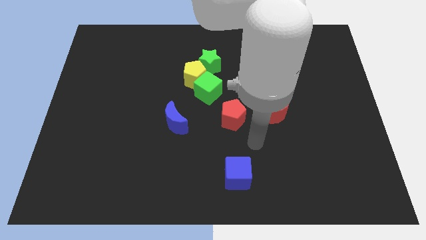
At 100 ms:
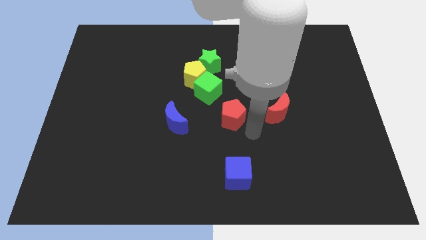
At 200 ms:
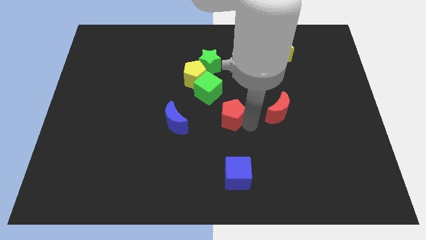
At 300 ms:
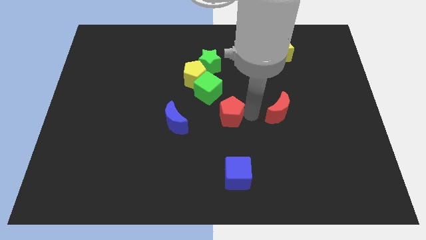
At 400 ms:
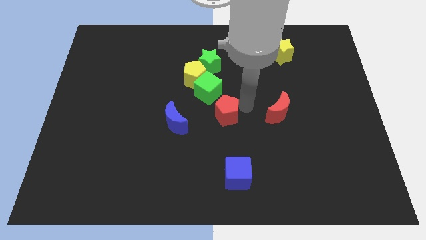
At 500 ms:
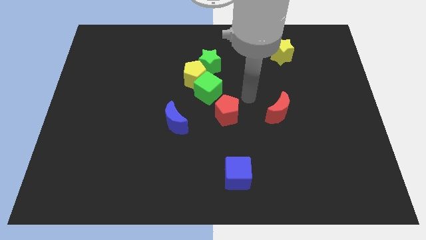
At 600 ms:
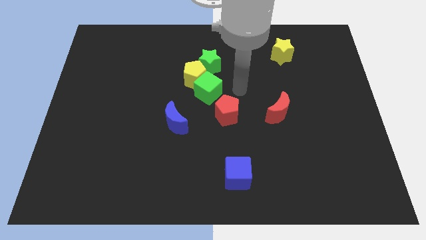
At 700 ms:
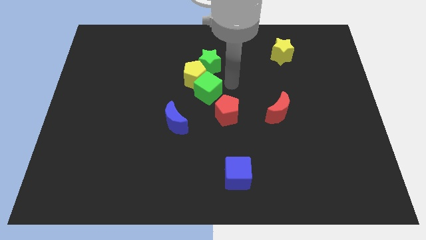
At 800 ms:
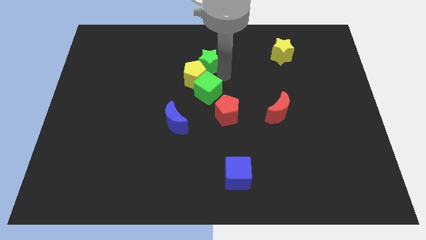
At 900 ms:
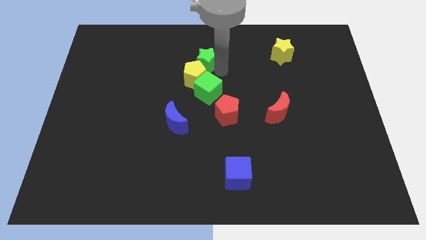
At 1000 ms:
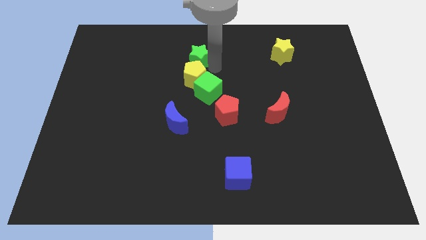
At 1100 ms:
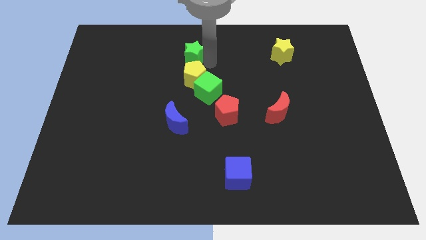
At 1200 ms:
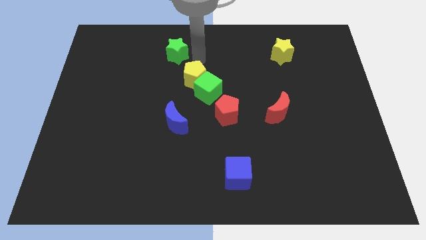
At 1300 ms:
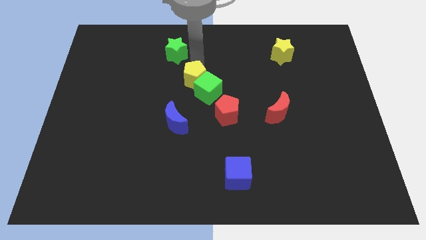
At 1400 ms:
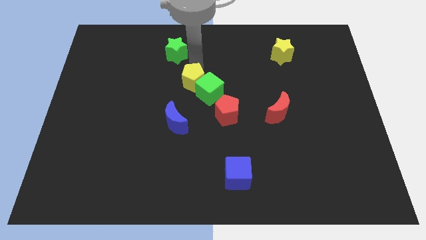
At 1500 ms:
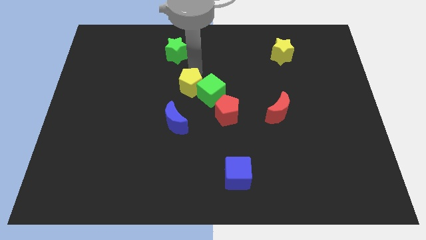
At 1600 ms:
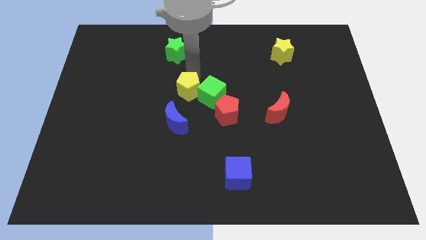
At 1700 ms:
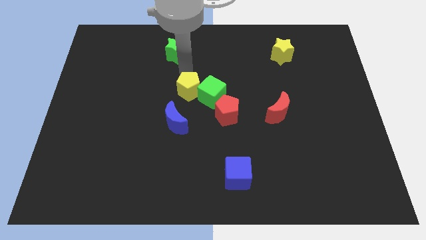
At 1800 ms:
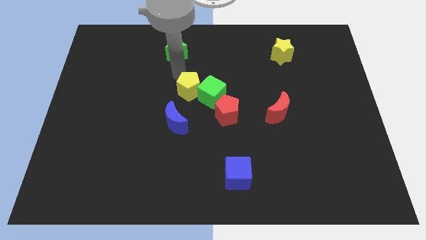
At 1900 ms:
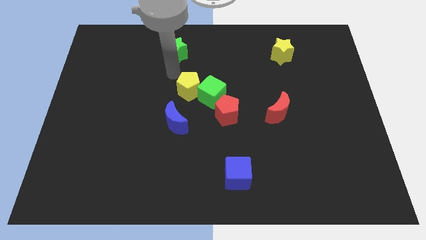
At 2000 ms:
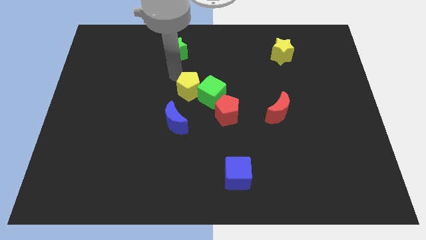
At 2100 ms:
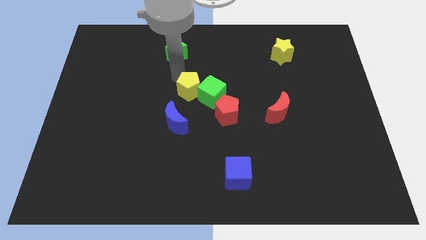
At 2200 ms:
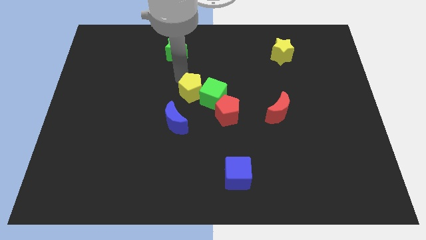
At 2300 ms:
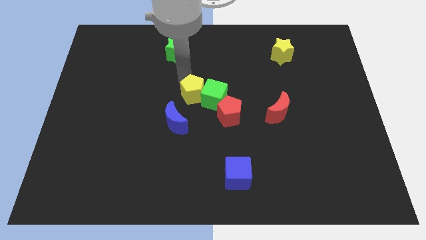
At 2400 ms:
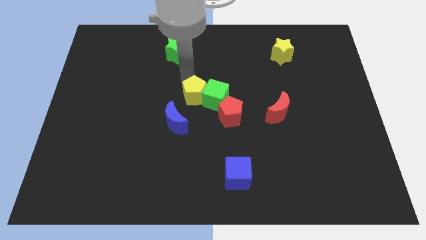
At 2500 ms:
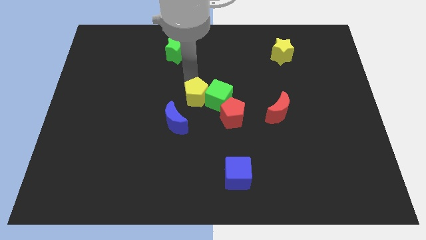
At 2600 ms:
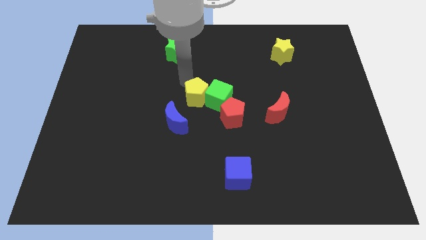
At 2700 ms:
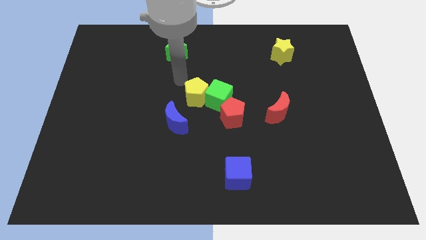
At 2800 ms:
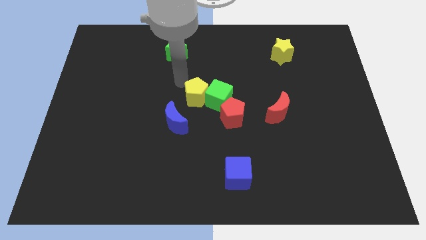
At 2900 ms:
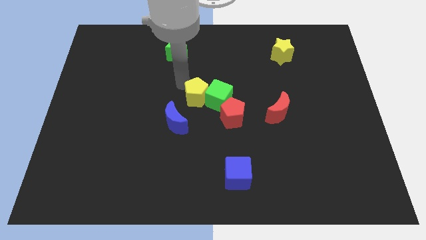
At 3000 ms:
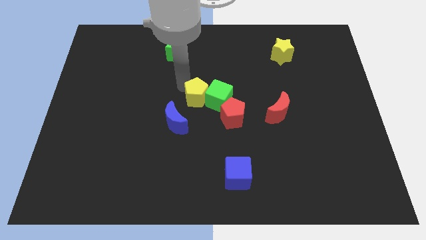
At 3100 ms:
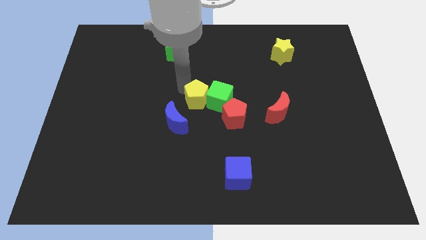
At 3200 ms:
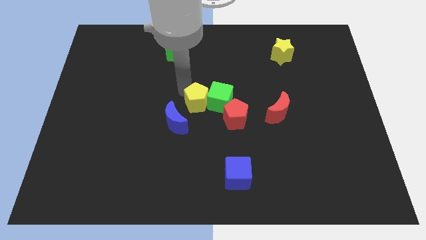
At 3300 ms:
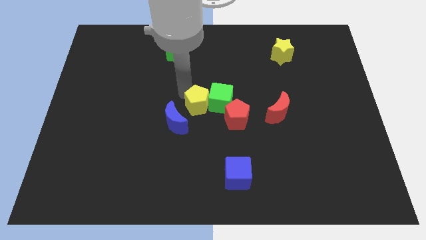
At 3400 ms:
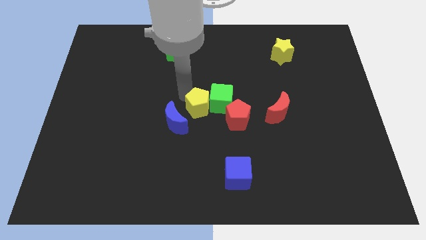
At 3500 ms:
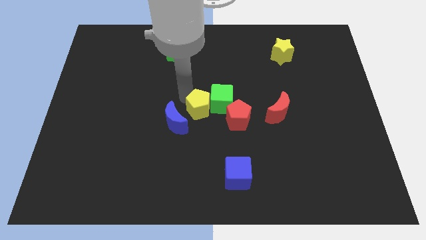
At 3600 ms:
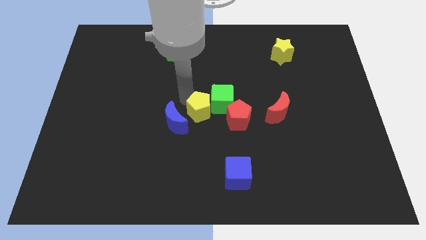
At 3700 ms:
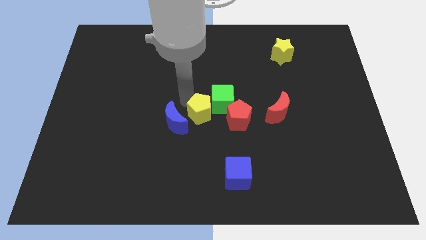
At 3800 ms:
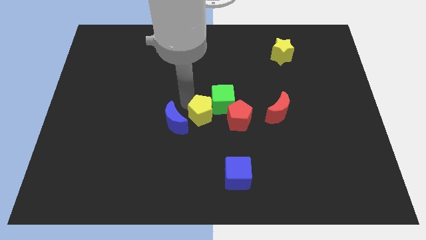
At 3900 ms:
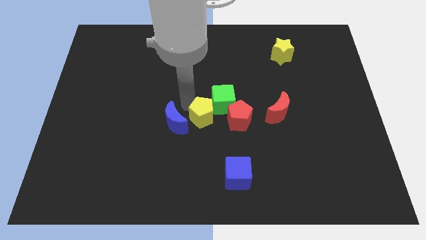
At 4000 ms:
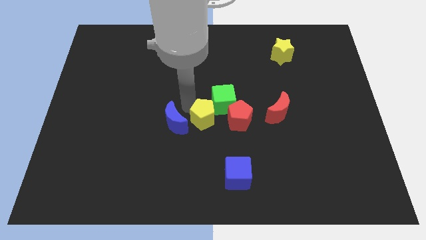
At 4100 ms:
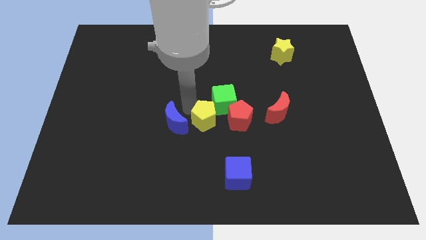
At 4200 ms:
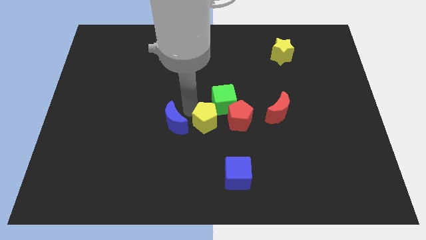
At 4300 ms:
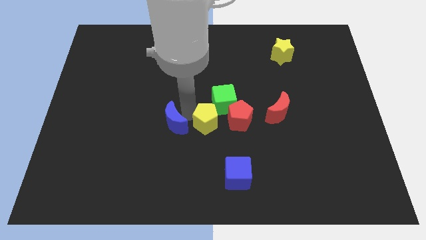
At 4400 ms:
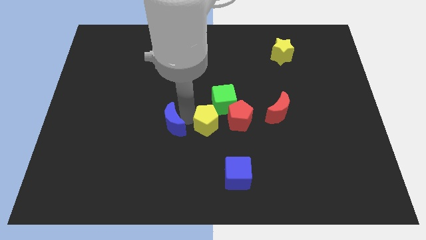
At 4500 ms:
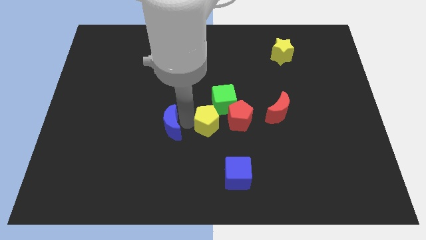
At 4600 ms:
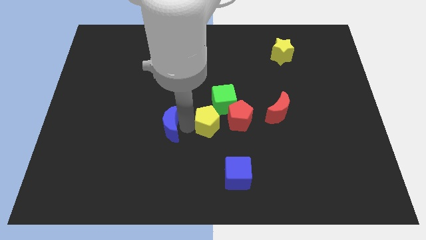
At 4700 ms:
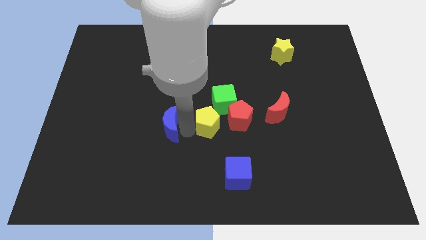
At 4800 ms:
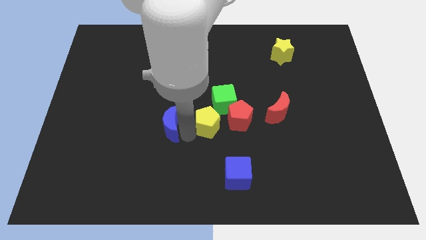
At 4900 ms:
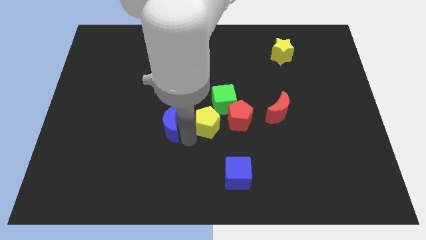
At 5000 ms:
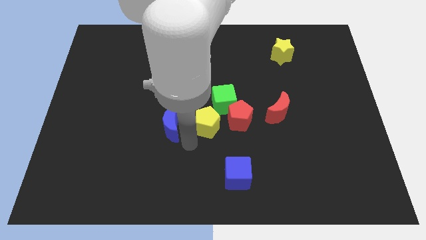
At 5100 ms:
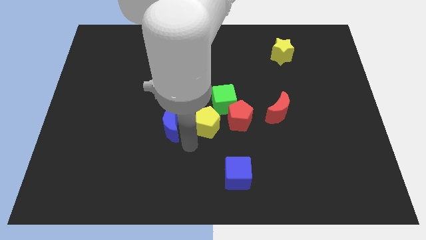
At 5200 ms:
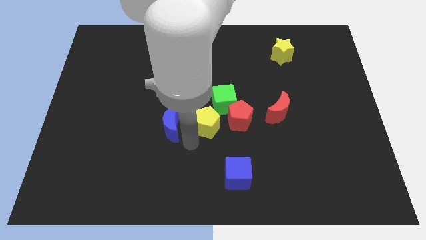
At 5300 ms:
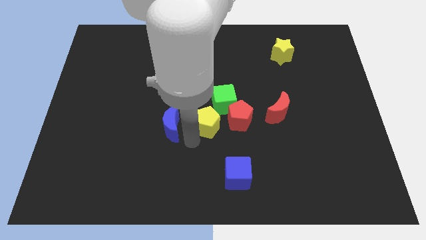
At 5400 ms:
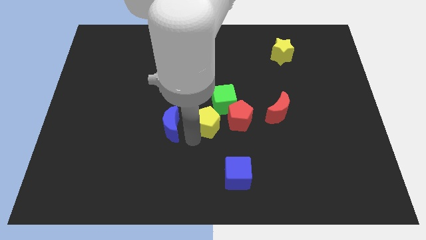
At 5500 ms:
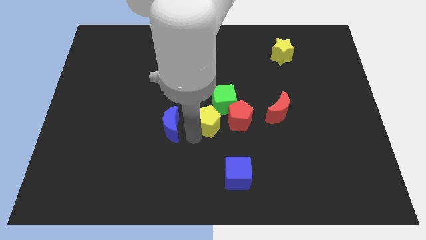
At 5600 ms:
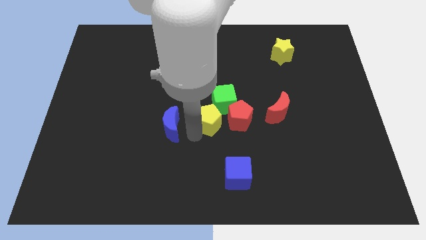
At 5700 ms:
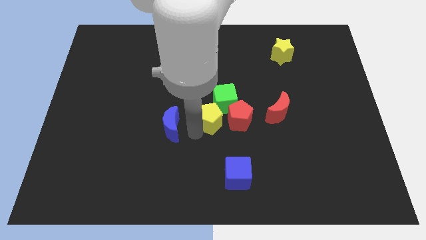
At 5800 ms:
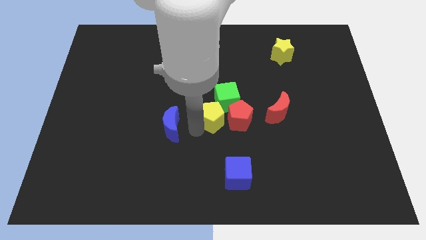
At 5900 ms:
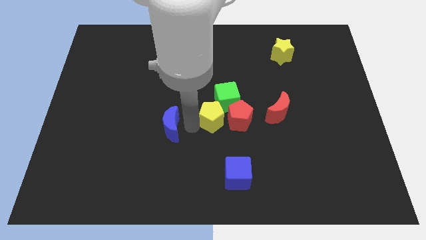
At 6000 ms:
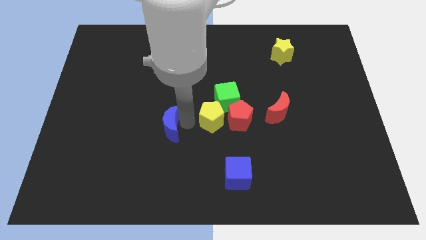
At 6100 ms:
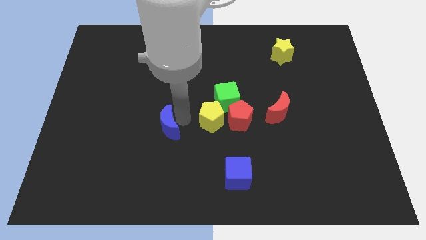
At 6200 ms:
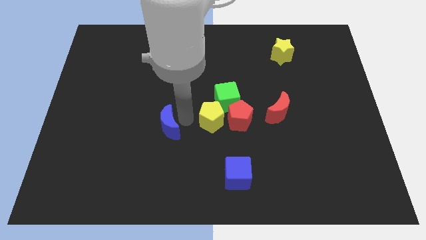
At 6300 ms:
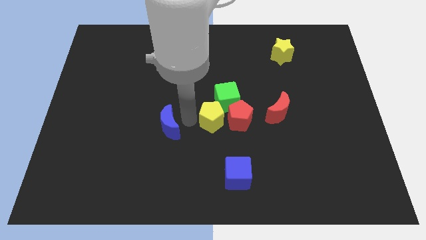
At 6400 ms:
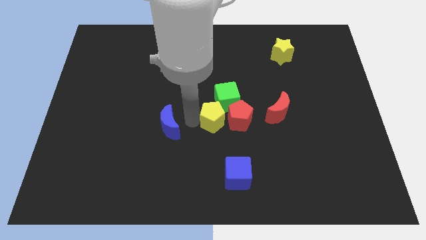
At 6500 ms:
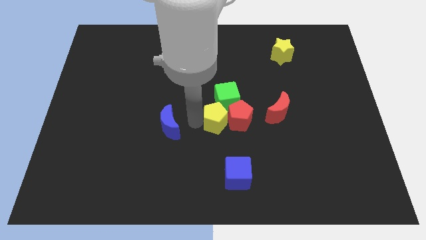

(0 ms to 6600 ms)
move the yellow pentagon to the red pentagon
